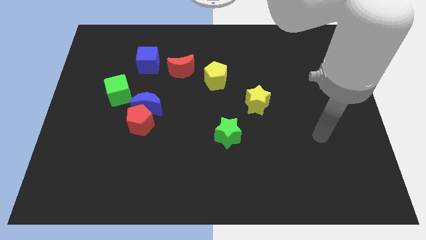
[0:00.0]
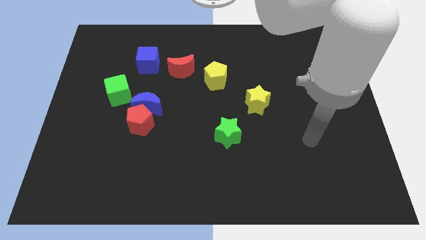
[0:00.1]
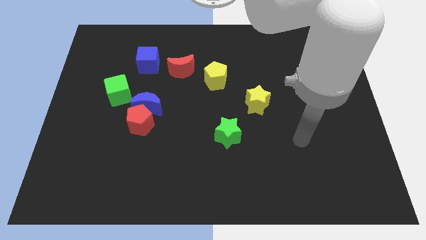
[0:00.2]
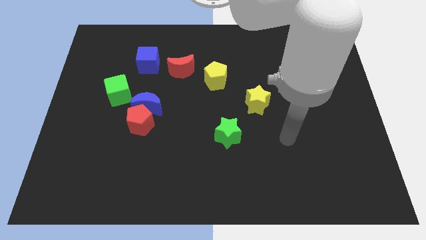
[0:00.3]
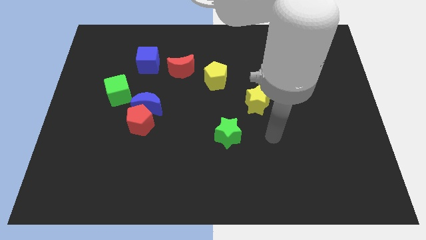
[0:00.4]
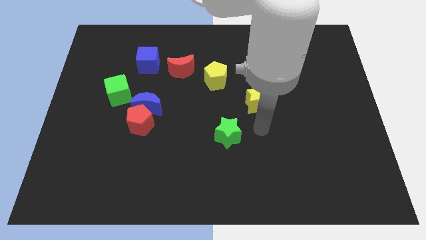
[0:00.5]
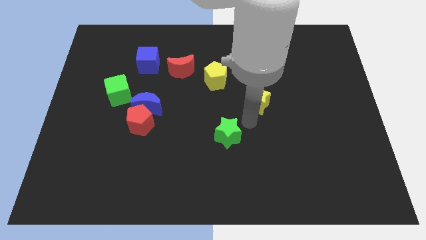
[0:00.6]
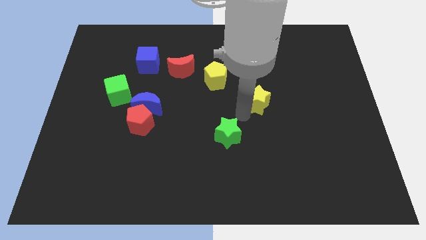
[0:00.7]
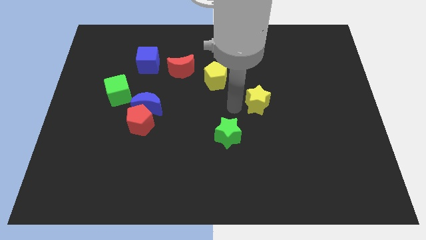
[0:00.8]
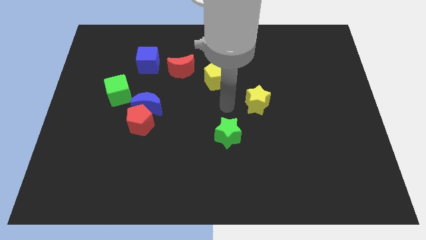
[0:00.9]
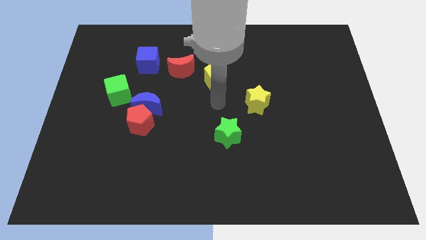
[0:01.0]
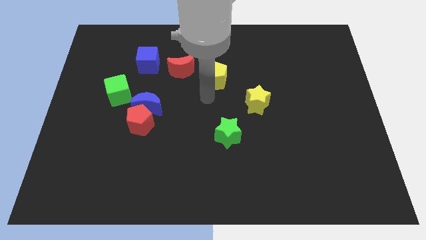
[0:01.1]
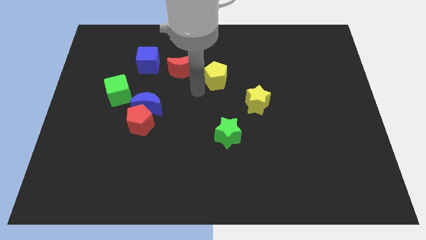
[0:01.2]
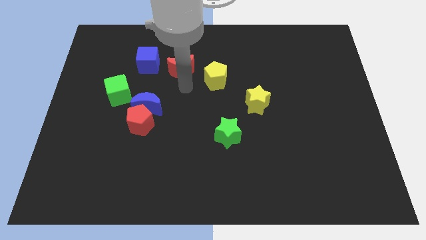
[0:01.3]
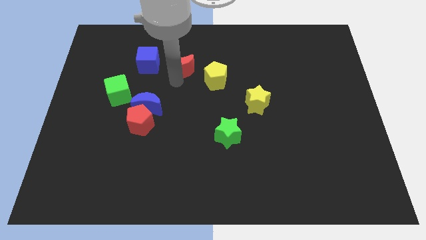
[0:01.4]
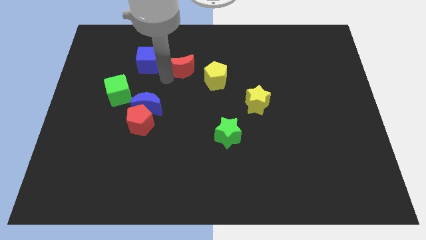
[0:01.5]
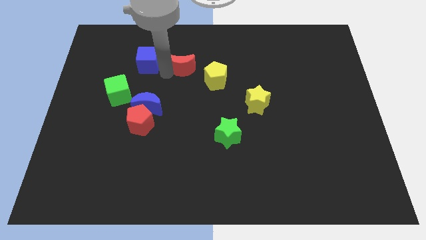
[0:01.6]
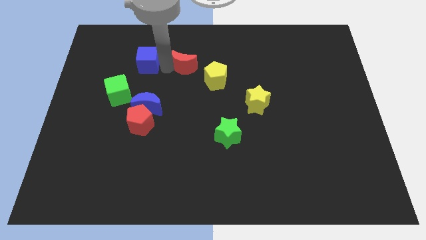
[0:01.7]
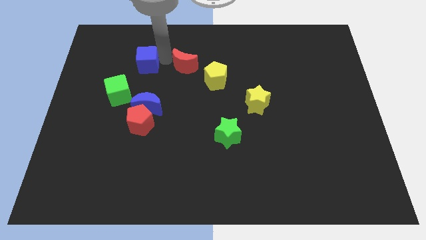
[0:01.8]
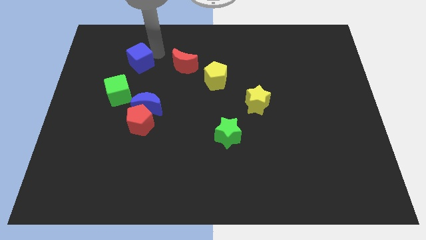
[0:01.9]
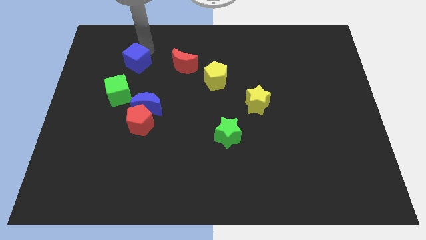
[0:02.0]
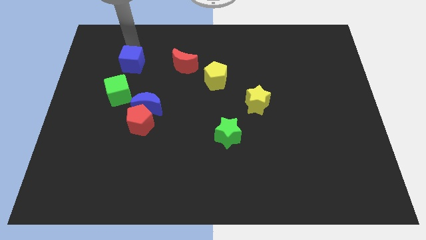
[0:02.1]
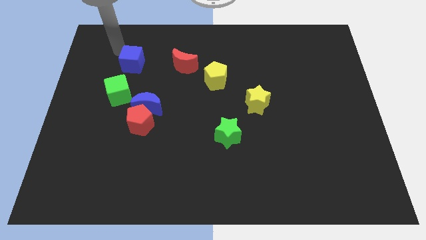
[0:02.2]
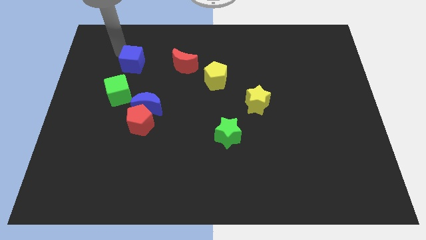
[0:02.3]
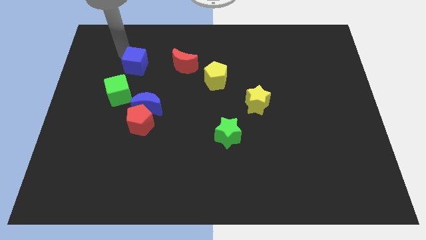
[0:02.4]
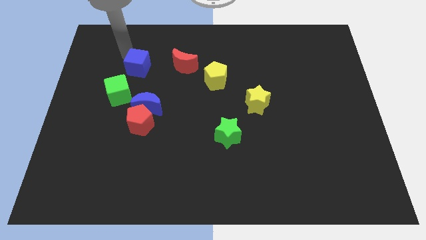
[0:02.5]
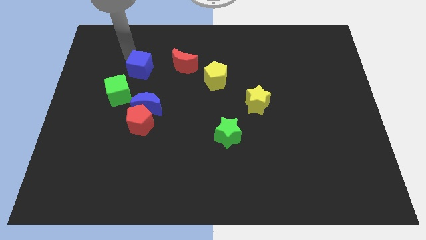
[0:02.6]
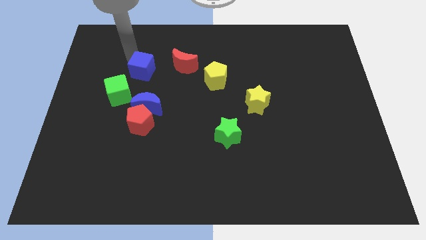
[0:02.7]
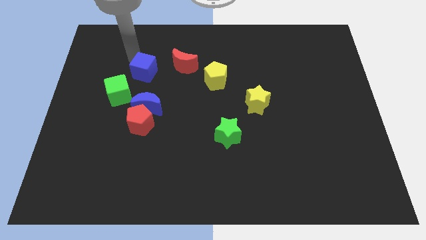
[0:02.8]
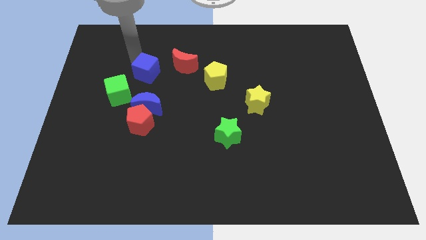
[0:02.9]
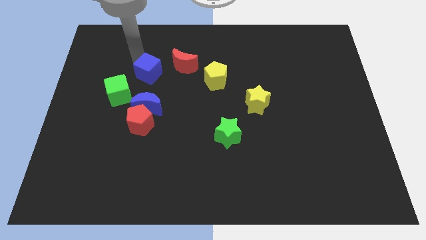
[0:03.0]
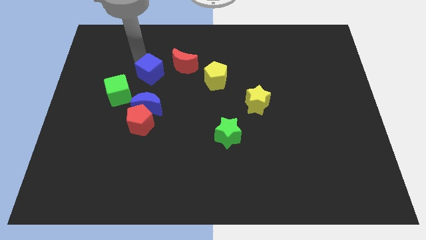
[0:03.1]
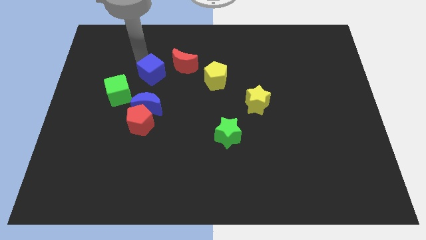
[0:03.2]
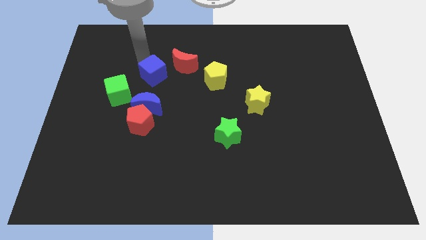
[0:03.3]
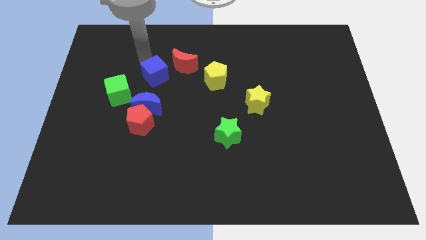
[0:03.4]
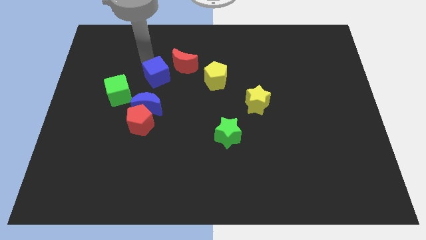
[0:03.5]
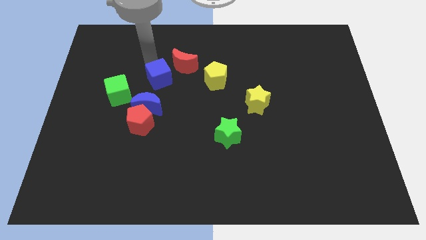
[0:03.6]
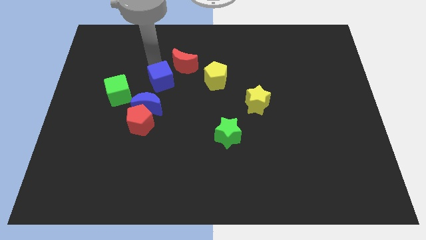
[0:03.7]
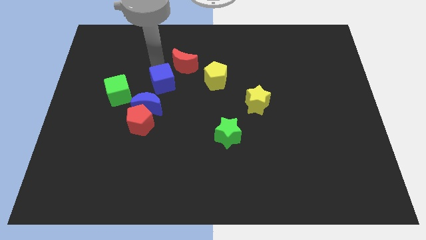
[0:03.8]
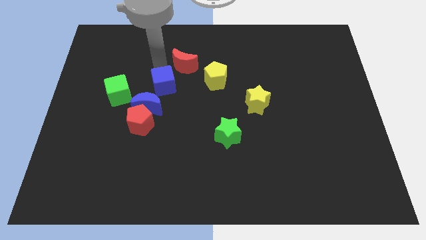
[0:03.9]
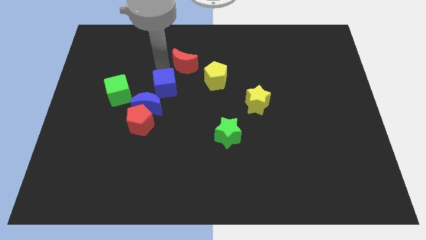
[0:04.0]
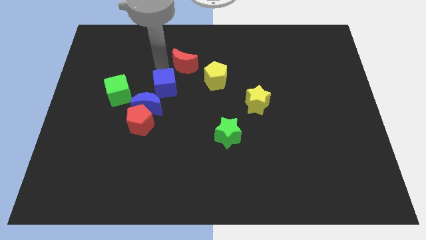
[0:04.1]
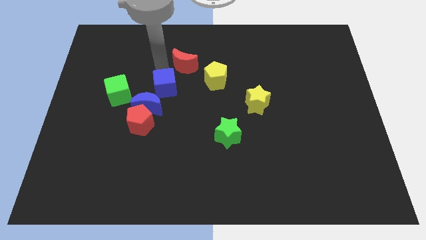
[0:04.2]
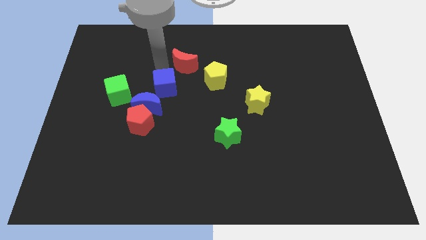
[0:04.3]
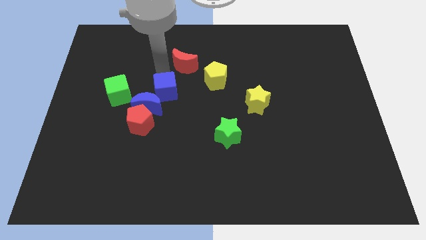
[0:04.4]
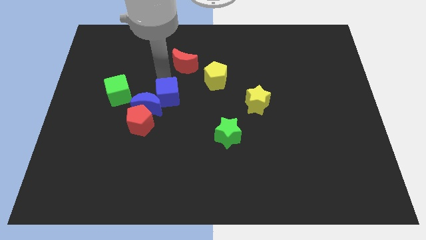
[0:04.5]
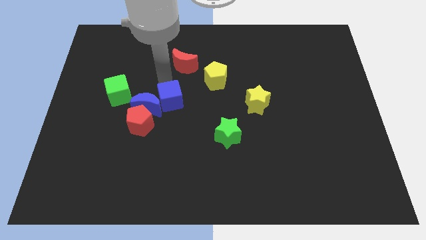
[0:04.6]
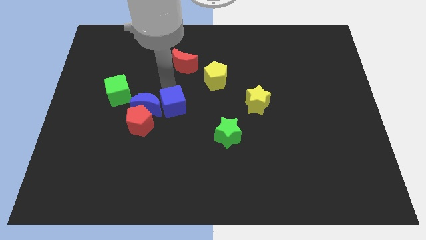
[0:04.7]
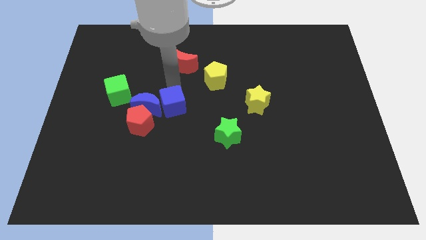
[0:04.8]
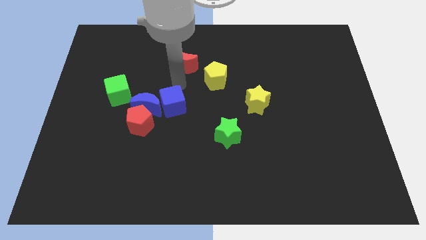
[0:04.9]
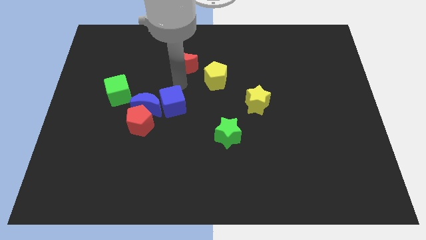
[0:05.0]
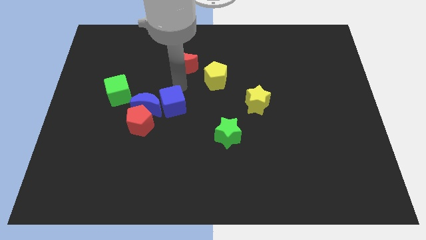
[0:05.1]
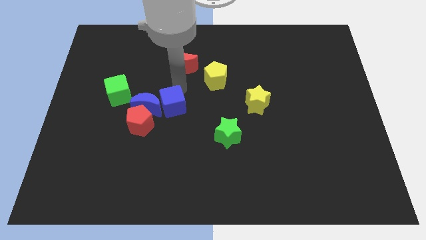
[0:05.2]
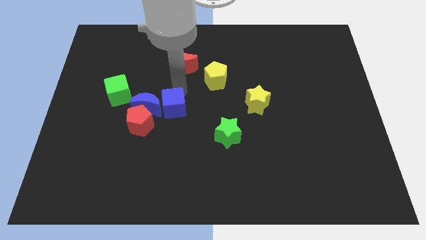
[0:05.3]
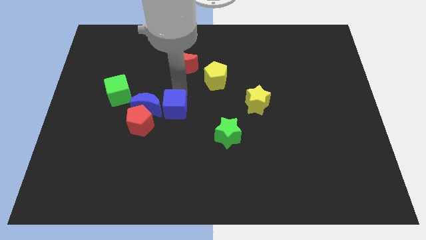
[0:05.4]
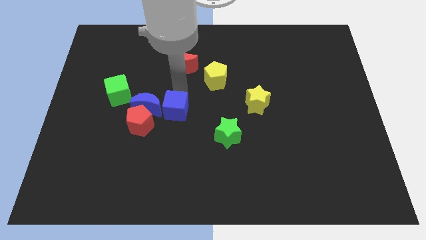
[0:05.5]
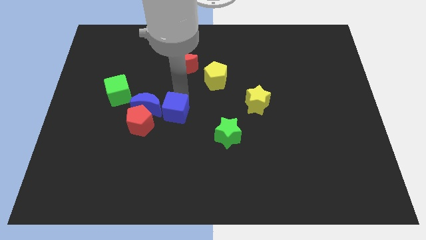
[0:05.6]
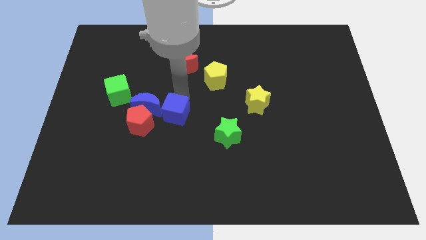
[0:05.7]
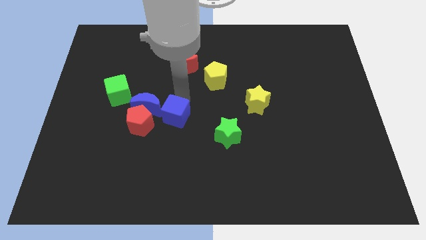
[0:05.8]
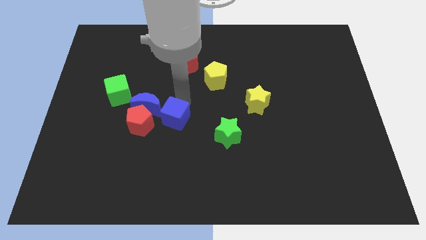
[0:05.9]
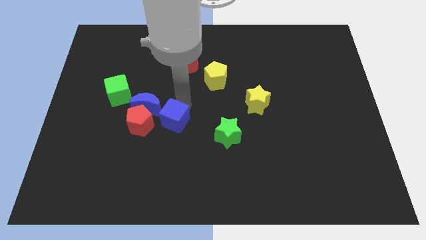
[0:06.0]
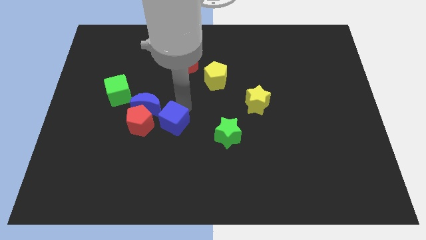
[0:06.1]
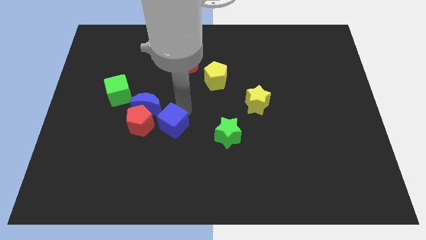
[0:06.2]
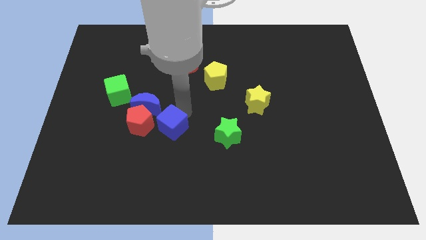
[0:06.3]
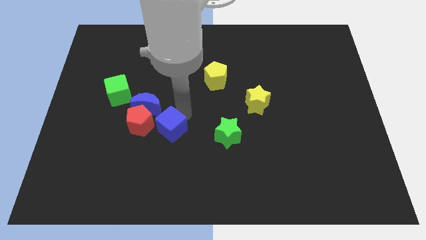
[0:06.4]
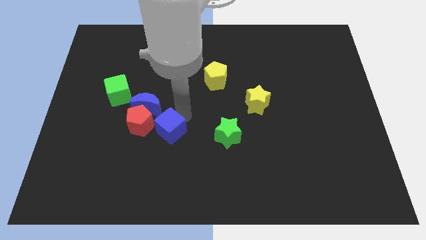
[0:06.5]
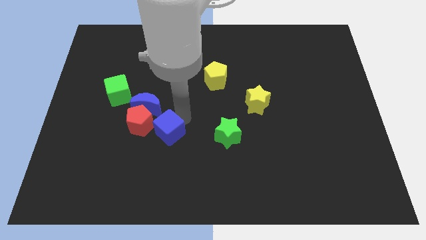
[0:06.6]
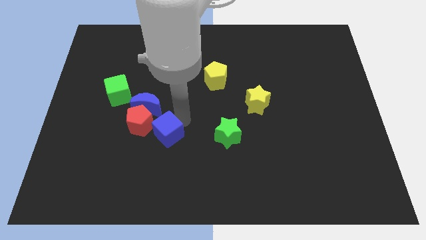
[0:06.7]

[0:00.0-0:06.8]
slide the blue cube down

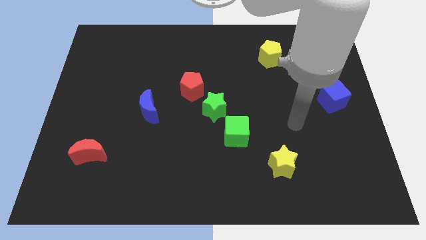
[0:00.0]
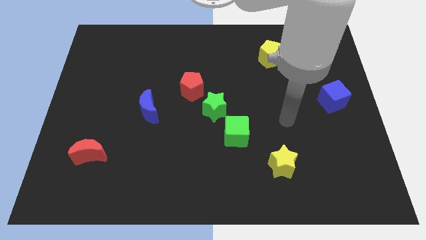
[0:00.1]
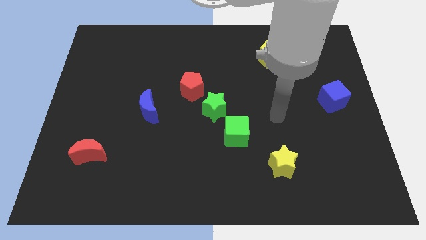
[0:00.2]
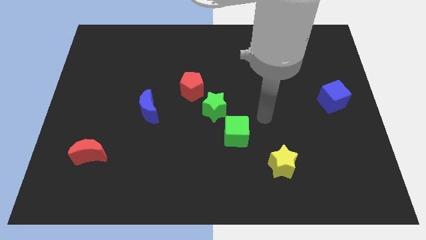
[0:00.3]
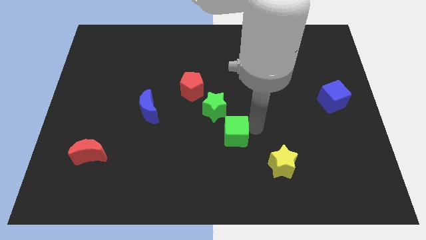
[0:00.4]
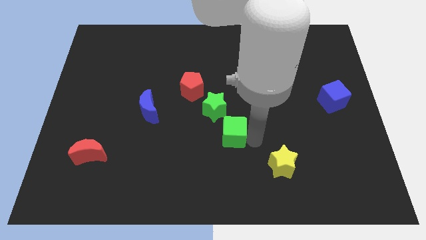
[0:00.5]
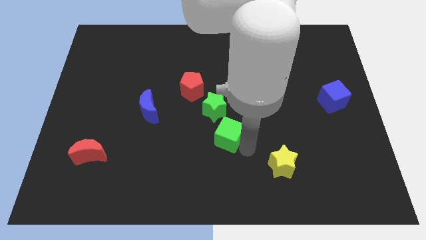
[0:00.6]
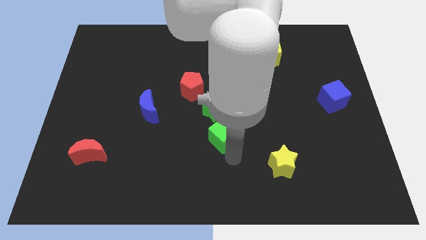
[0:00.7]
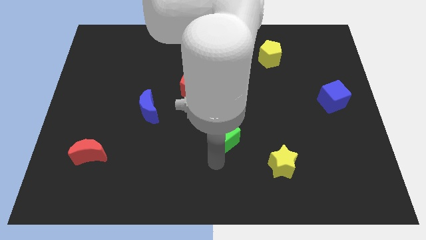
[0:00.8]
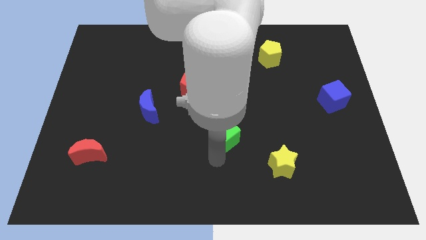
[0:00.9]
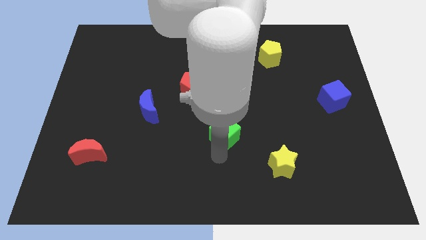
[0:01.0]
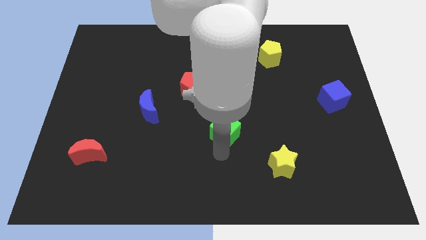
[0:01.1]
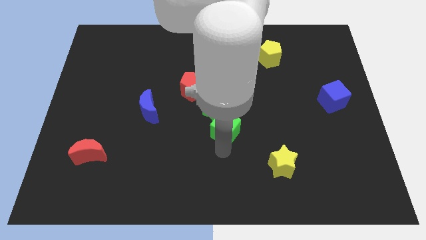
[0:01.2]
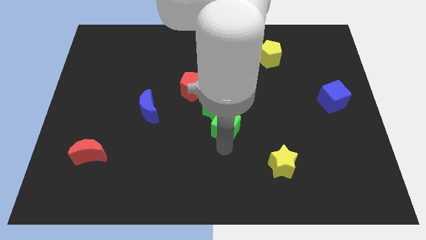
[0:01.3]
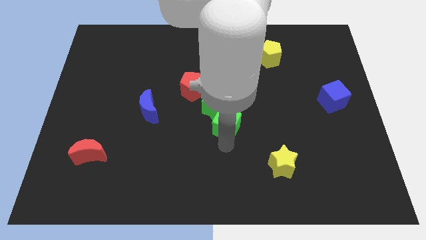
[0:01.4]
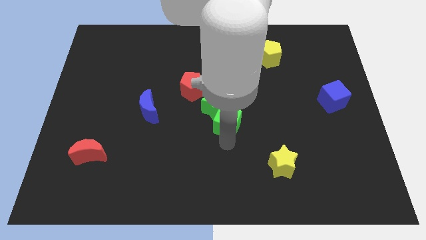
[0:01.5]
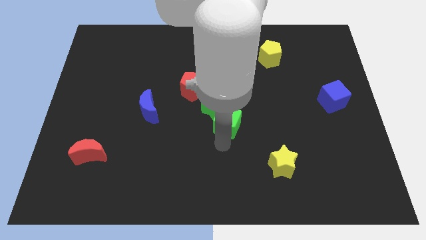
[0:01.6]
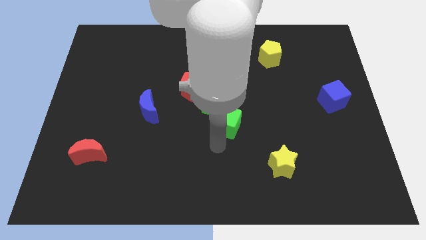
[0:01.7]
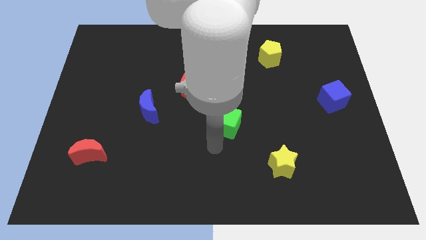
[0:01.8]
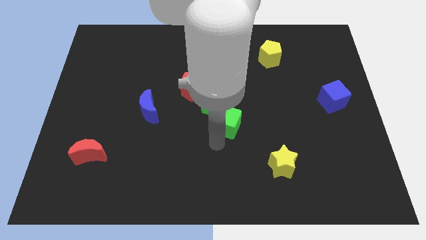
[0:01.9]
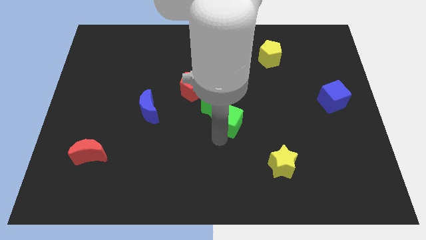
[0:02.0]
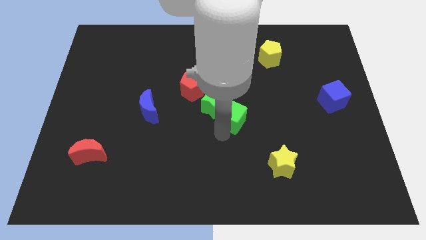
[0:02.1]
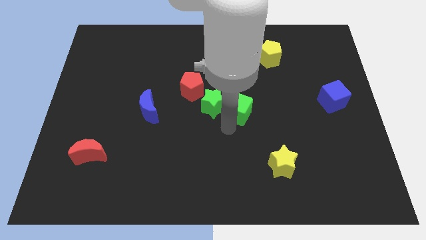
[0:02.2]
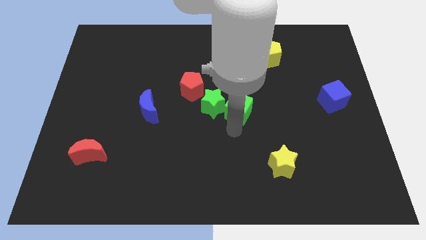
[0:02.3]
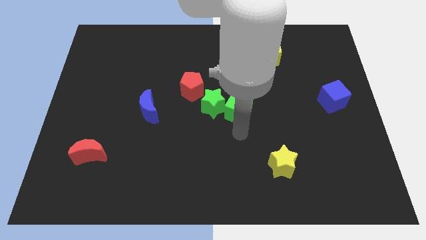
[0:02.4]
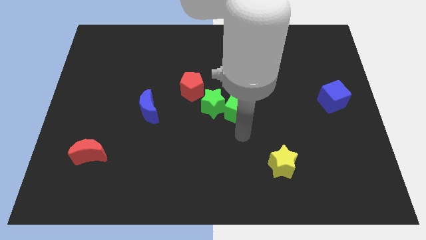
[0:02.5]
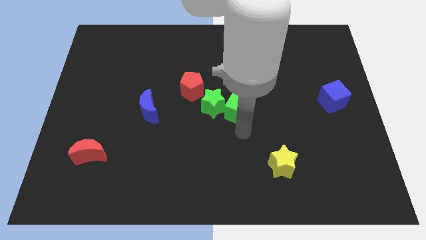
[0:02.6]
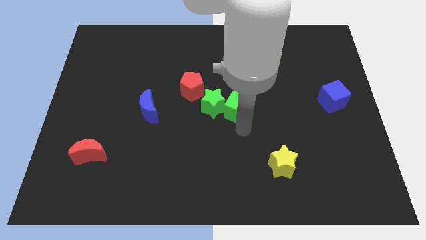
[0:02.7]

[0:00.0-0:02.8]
slide the green cube a little bit up
